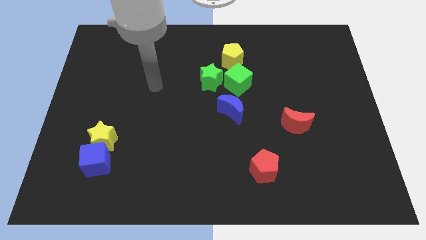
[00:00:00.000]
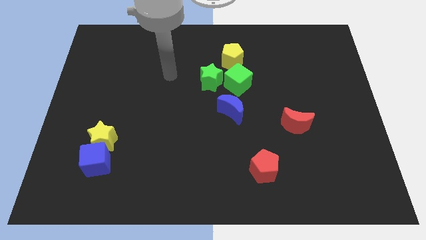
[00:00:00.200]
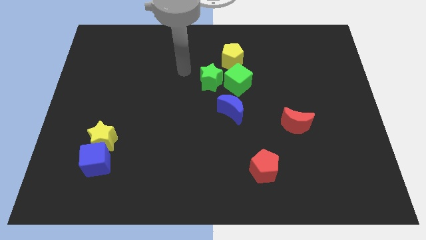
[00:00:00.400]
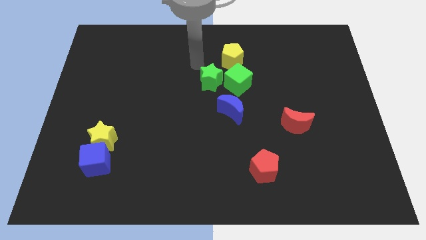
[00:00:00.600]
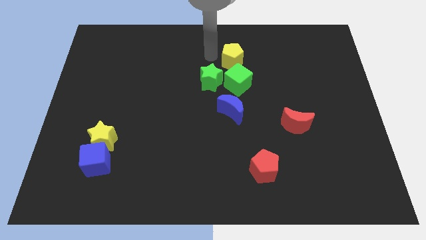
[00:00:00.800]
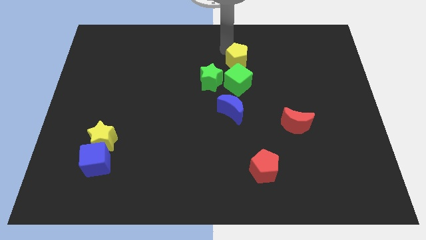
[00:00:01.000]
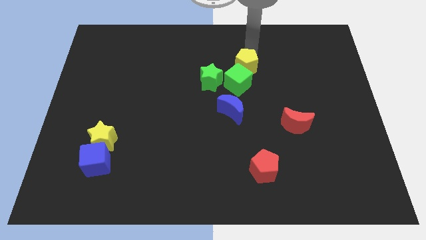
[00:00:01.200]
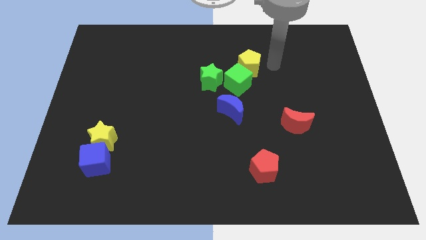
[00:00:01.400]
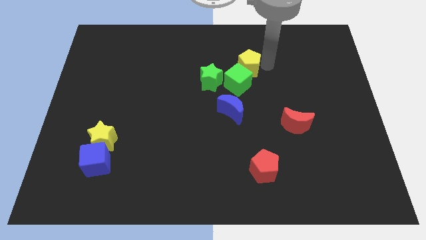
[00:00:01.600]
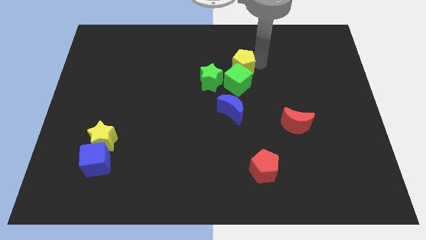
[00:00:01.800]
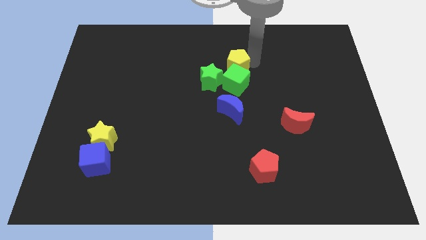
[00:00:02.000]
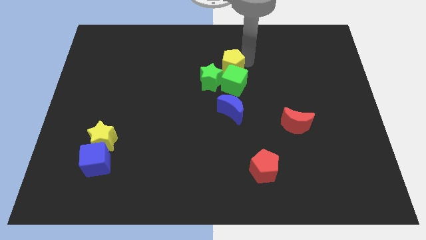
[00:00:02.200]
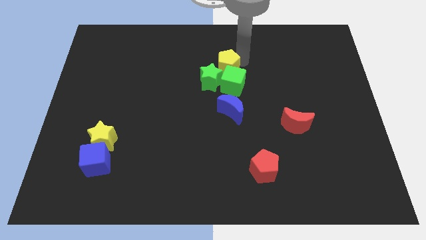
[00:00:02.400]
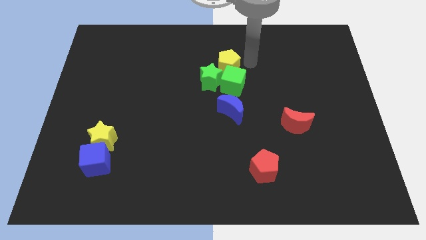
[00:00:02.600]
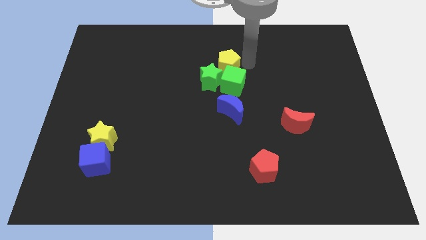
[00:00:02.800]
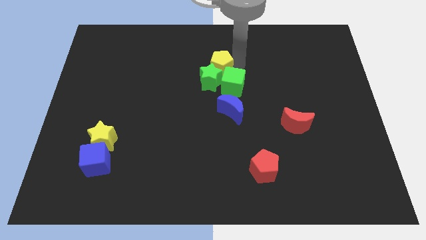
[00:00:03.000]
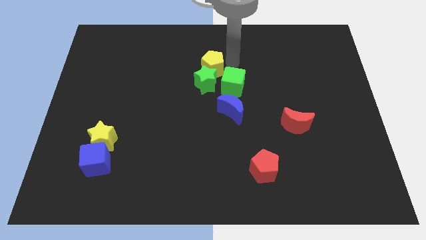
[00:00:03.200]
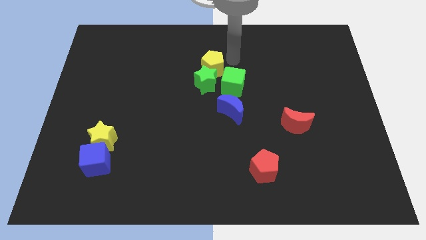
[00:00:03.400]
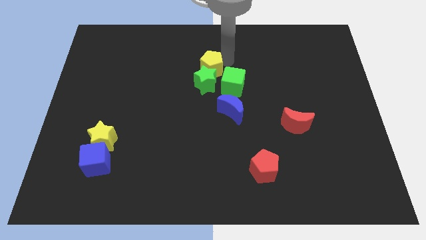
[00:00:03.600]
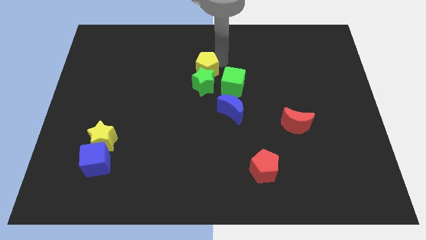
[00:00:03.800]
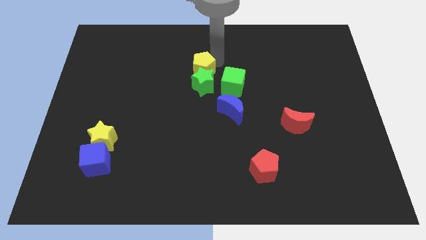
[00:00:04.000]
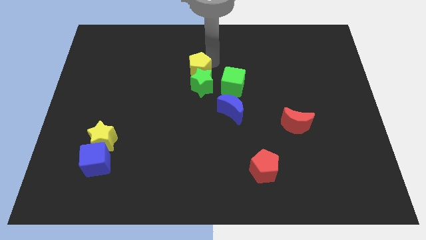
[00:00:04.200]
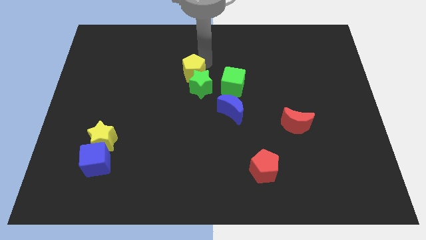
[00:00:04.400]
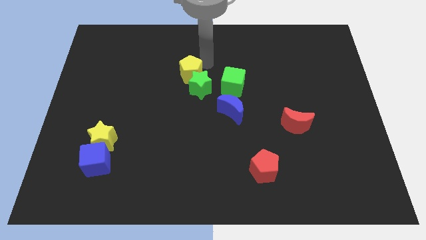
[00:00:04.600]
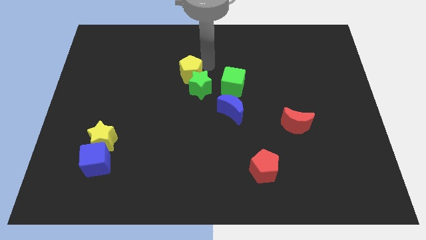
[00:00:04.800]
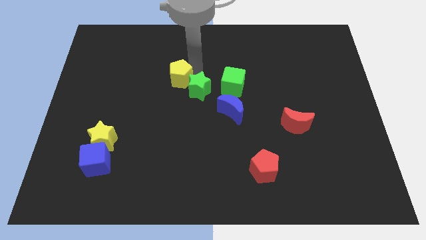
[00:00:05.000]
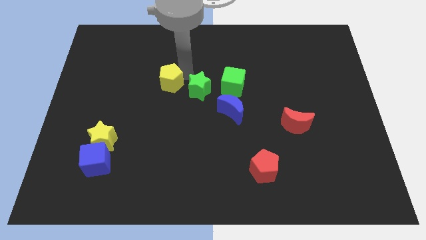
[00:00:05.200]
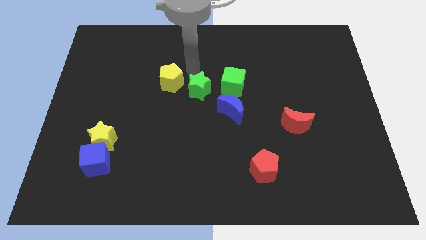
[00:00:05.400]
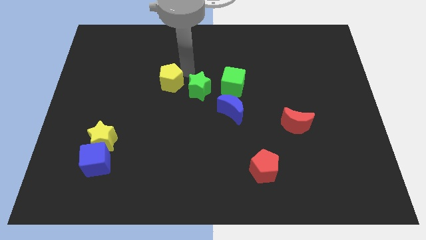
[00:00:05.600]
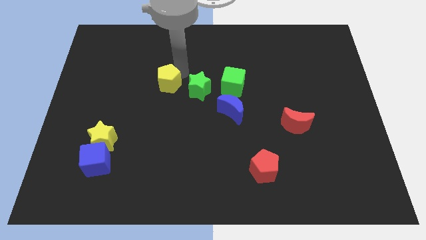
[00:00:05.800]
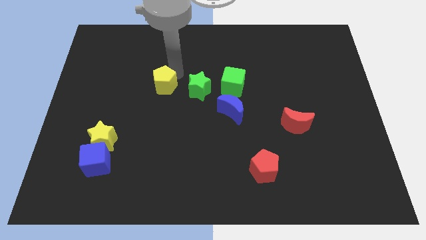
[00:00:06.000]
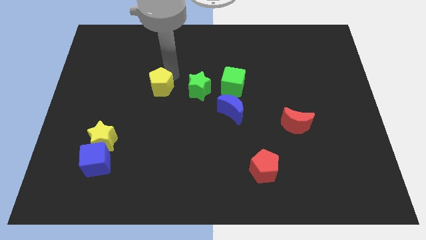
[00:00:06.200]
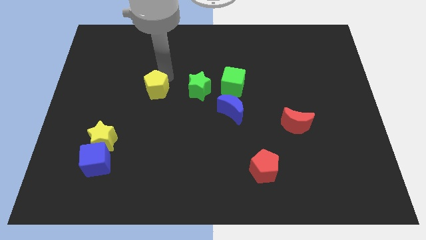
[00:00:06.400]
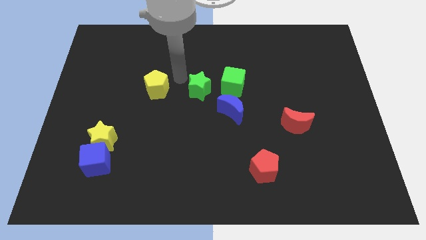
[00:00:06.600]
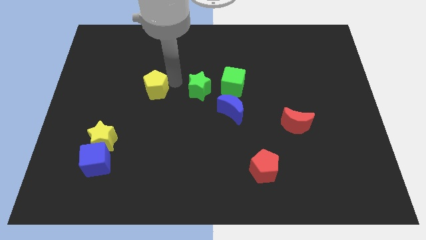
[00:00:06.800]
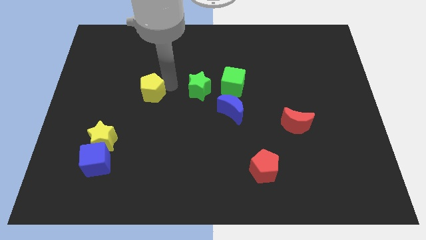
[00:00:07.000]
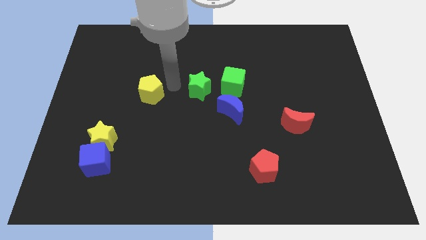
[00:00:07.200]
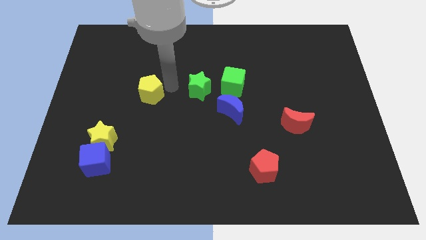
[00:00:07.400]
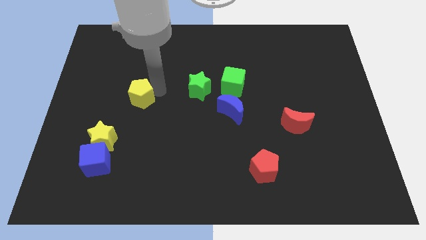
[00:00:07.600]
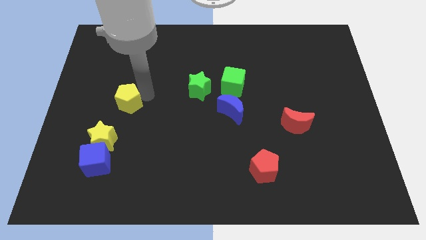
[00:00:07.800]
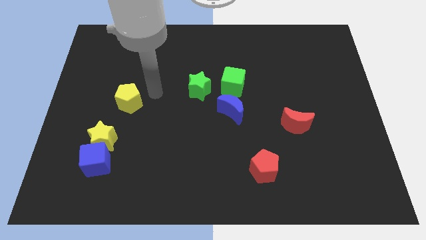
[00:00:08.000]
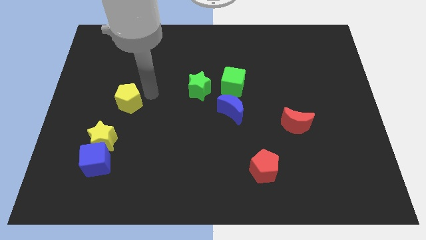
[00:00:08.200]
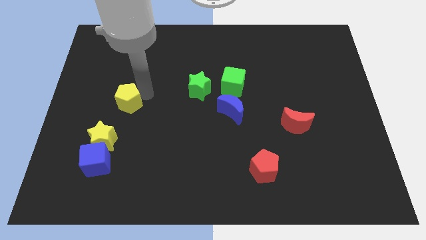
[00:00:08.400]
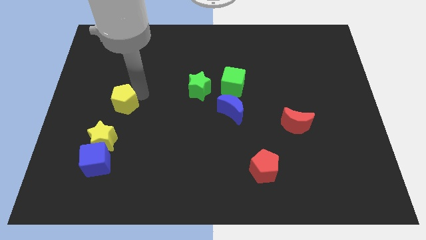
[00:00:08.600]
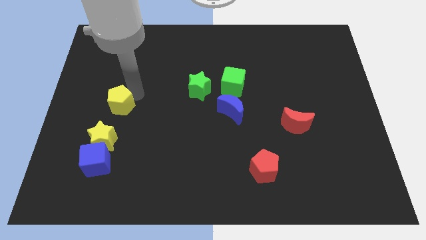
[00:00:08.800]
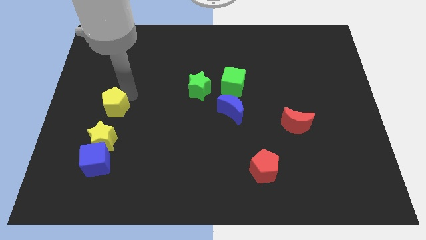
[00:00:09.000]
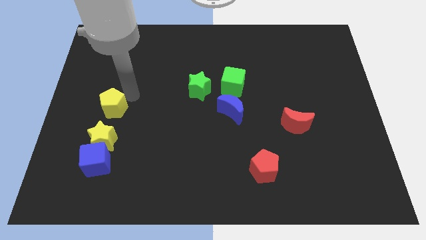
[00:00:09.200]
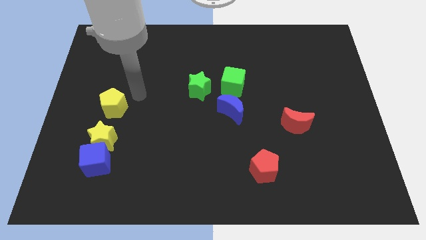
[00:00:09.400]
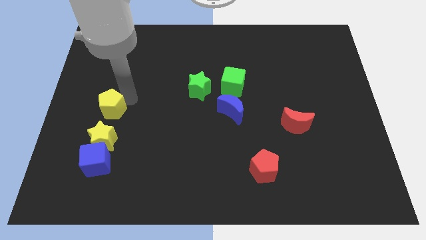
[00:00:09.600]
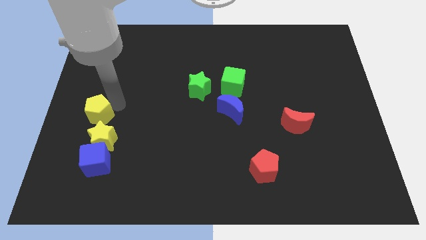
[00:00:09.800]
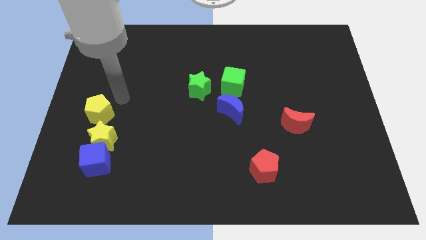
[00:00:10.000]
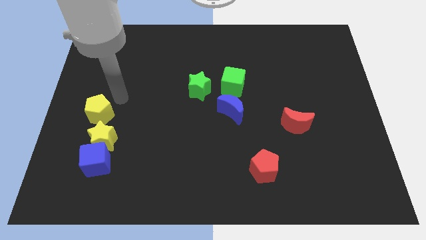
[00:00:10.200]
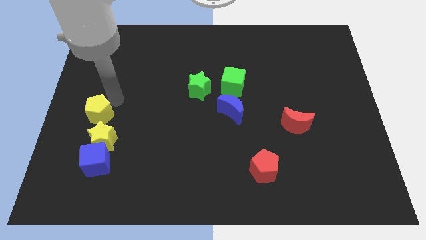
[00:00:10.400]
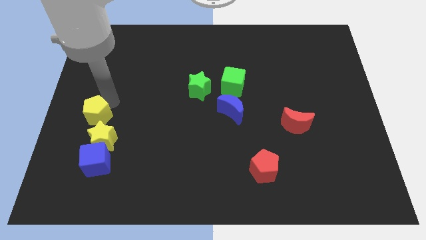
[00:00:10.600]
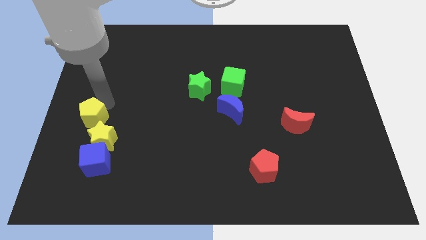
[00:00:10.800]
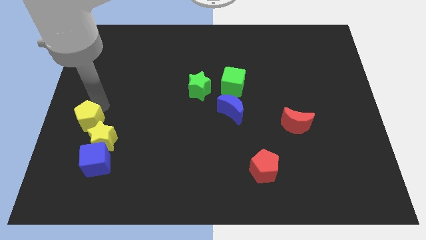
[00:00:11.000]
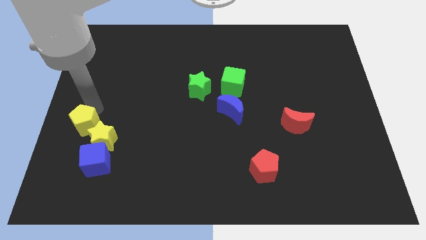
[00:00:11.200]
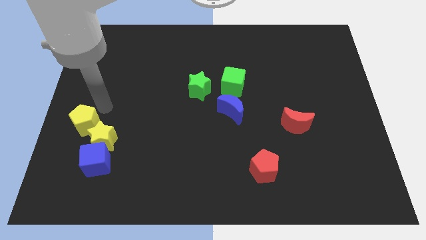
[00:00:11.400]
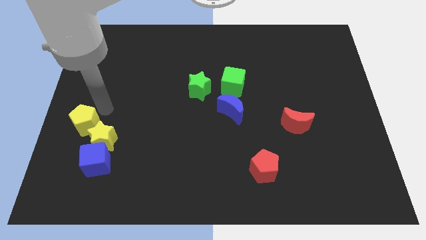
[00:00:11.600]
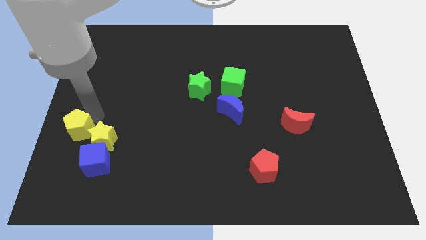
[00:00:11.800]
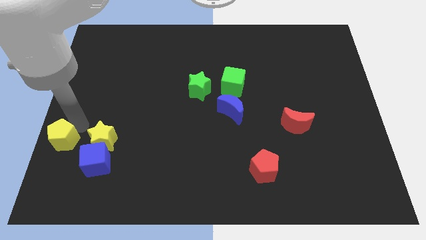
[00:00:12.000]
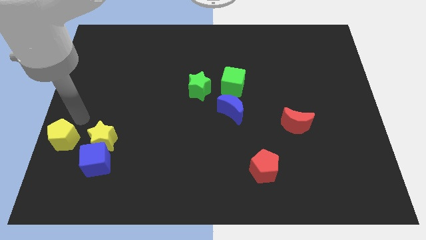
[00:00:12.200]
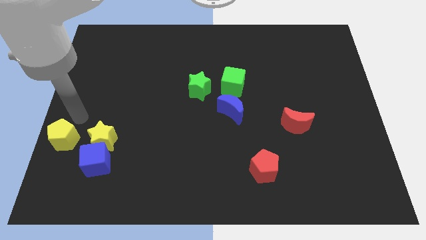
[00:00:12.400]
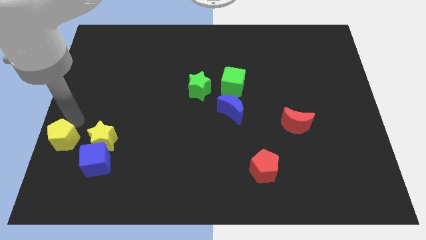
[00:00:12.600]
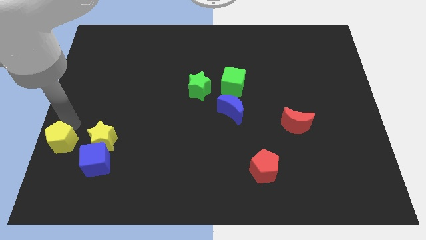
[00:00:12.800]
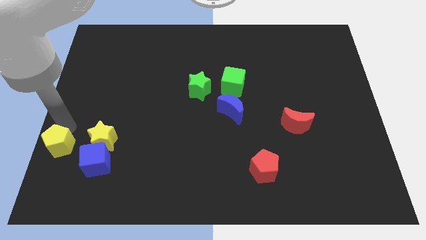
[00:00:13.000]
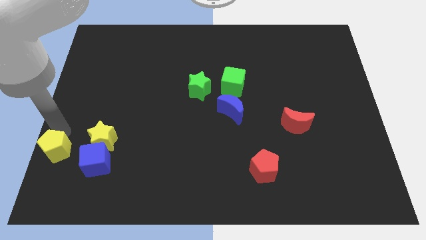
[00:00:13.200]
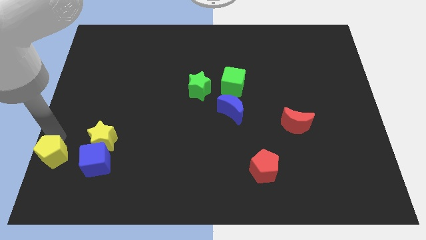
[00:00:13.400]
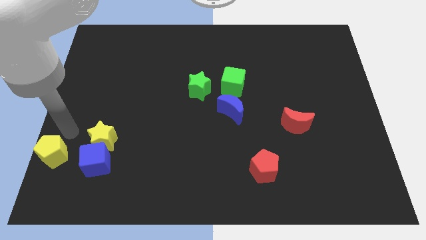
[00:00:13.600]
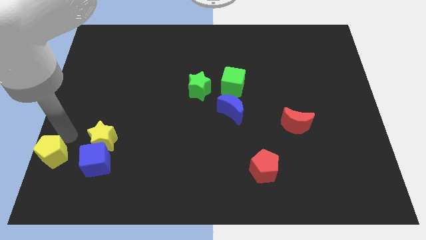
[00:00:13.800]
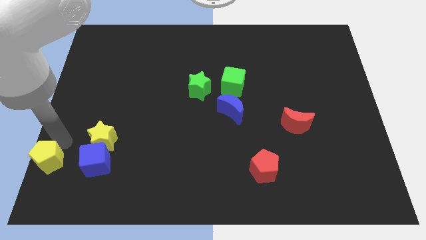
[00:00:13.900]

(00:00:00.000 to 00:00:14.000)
slide the yellow pentagon to the lower left corner
